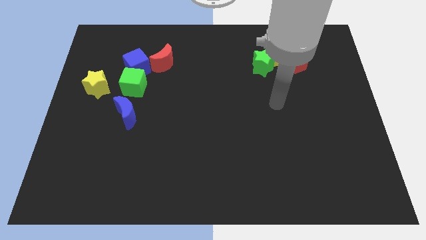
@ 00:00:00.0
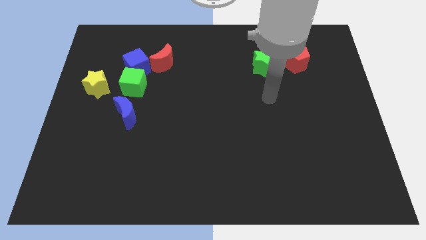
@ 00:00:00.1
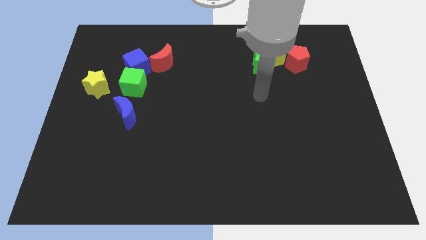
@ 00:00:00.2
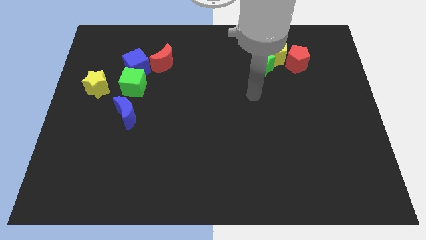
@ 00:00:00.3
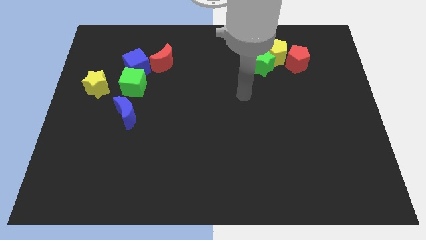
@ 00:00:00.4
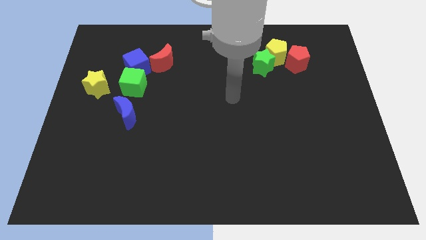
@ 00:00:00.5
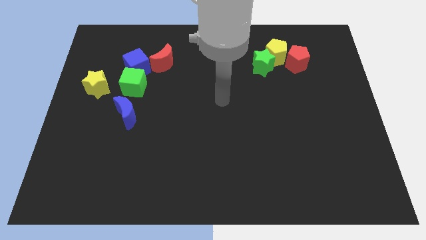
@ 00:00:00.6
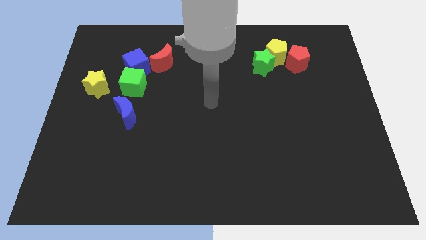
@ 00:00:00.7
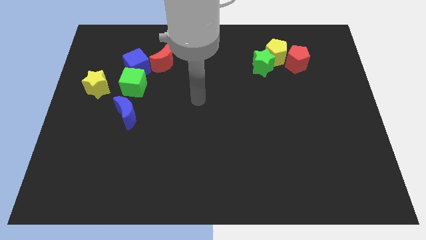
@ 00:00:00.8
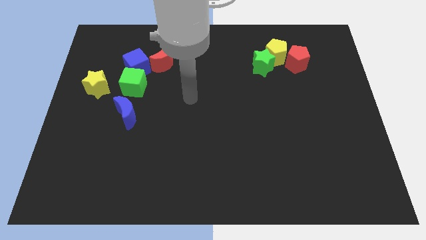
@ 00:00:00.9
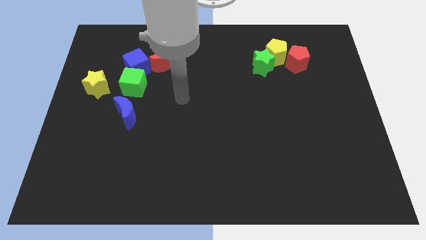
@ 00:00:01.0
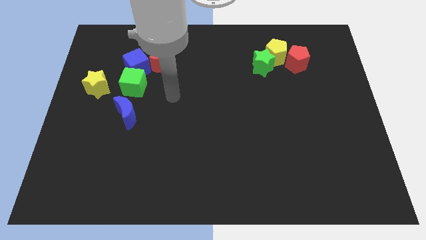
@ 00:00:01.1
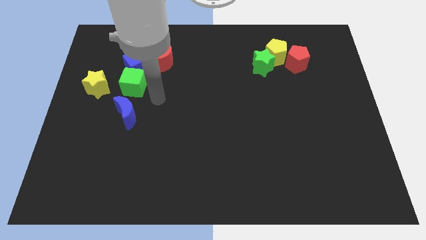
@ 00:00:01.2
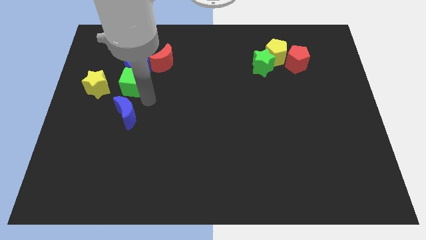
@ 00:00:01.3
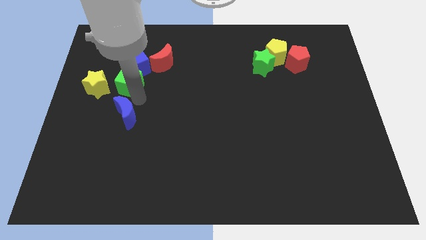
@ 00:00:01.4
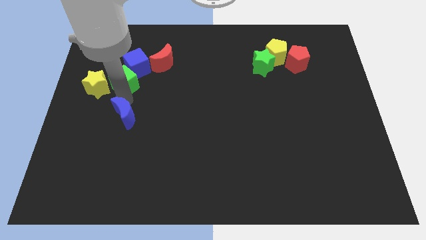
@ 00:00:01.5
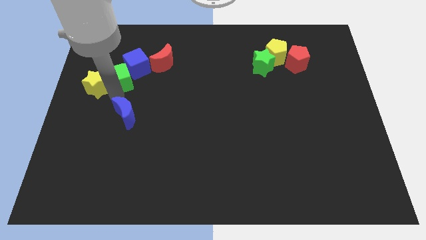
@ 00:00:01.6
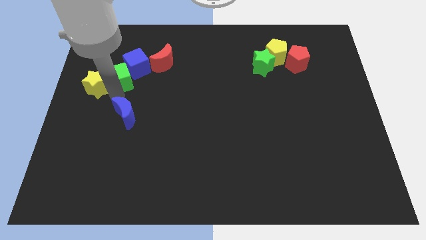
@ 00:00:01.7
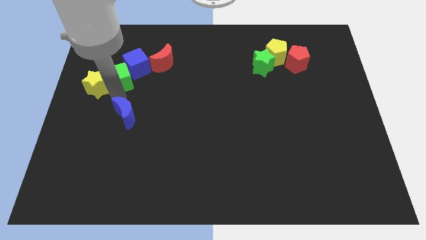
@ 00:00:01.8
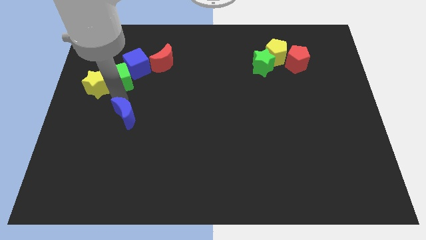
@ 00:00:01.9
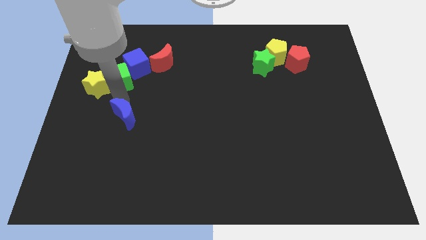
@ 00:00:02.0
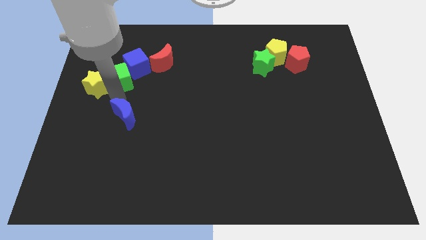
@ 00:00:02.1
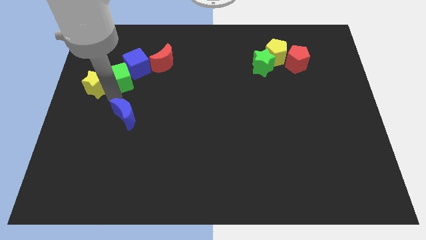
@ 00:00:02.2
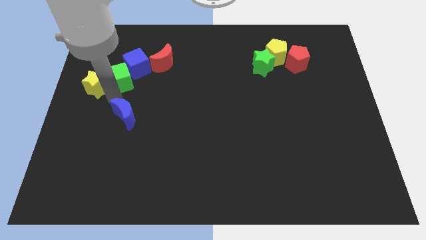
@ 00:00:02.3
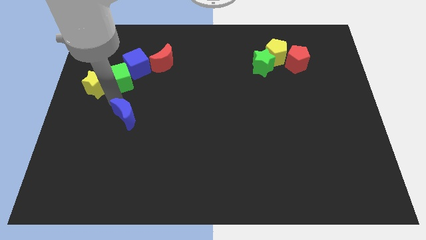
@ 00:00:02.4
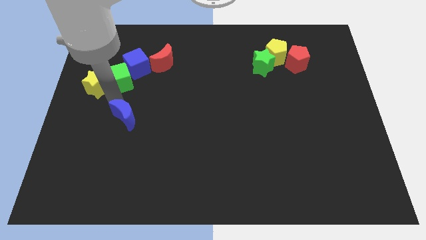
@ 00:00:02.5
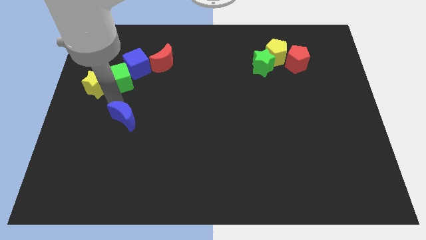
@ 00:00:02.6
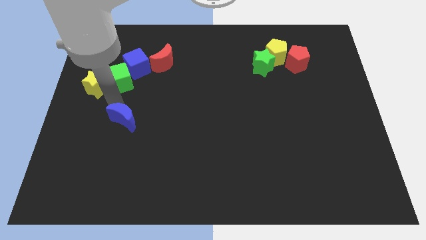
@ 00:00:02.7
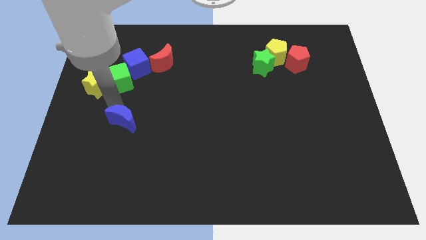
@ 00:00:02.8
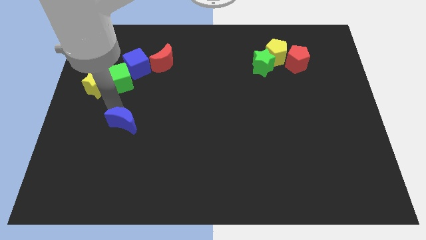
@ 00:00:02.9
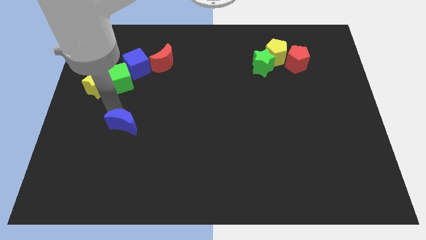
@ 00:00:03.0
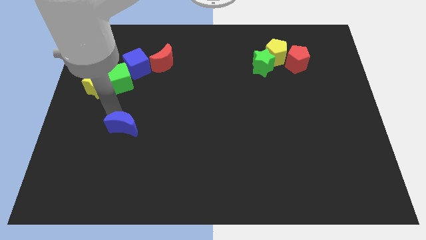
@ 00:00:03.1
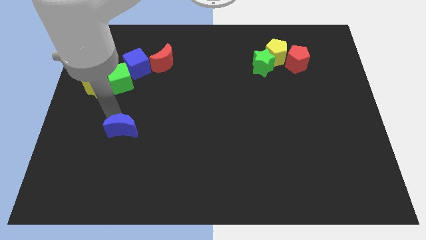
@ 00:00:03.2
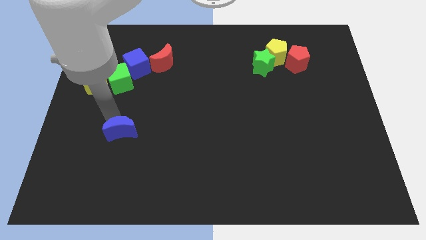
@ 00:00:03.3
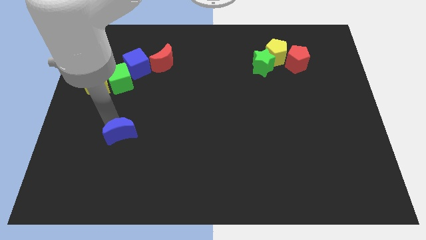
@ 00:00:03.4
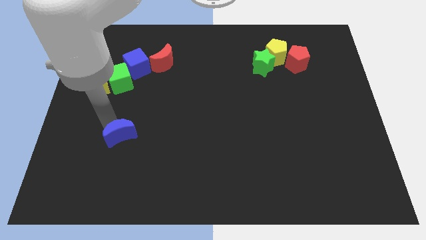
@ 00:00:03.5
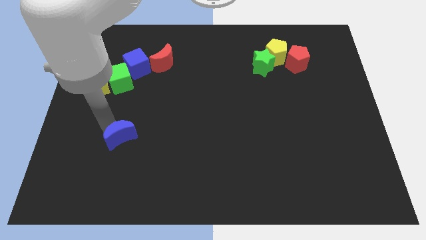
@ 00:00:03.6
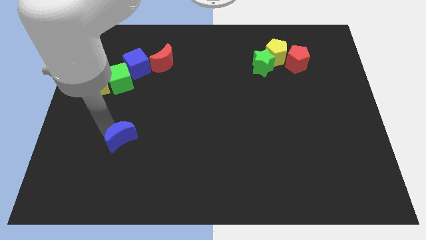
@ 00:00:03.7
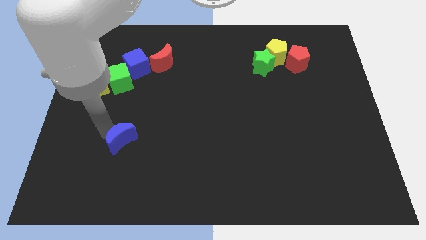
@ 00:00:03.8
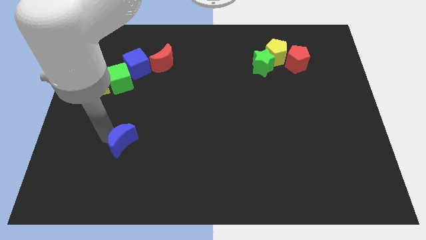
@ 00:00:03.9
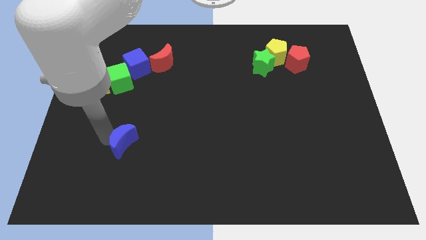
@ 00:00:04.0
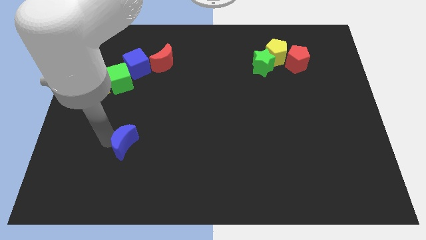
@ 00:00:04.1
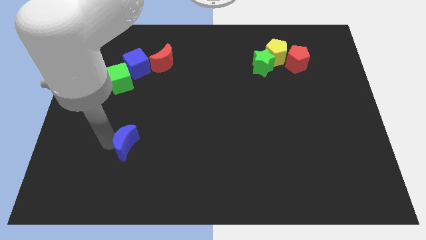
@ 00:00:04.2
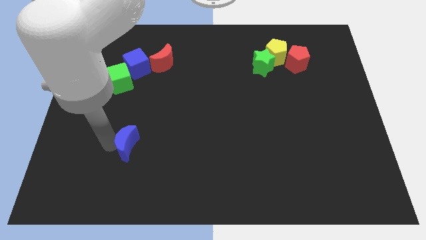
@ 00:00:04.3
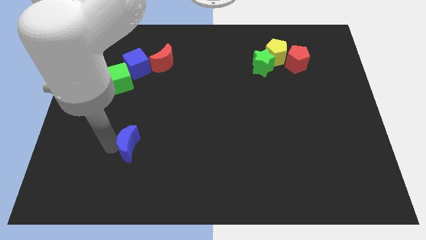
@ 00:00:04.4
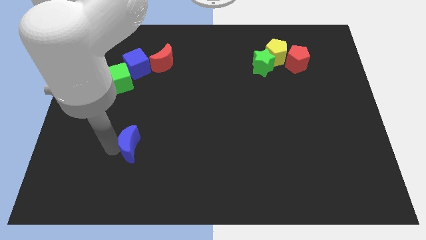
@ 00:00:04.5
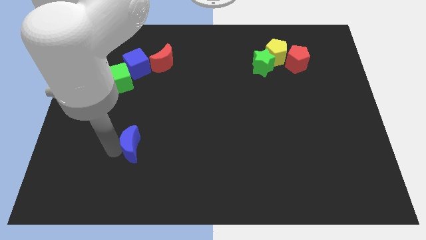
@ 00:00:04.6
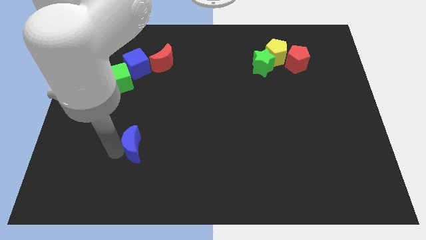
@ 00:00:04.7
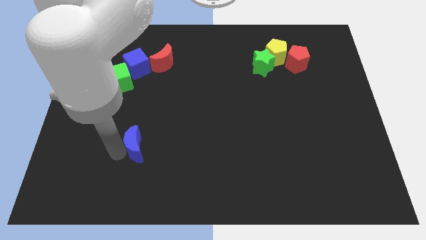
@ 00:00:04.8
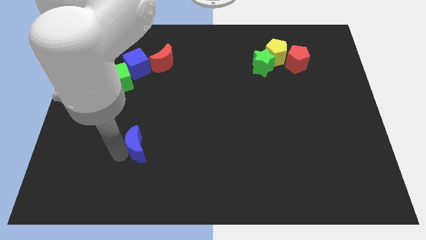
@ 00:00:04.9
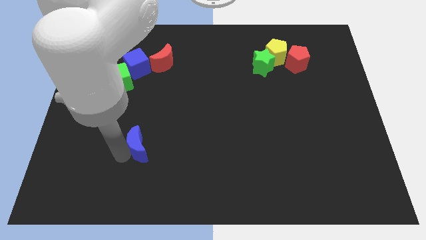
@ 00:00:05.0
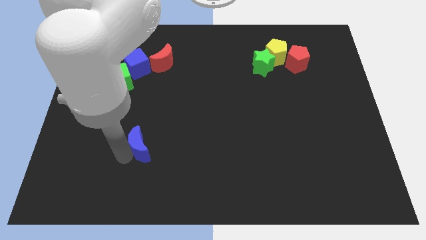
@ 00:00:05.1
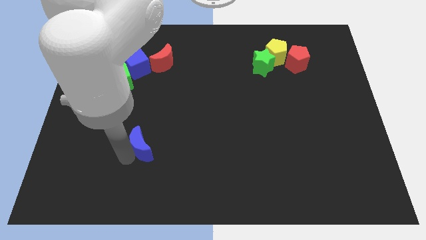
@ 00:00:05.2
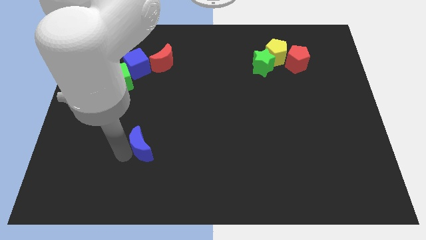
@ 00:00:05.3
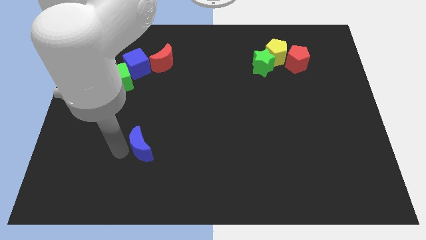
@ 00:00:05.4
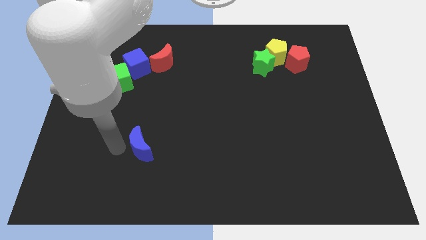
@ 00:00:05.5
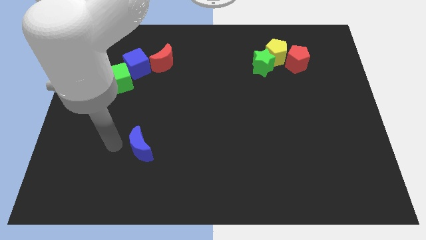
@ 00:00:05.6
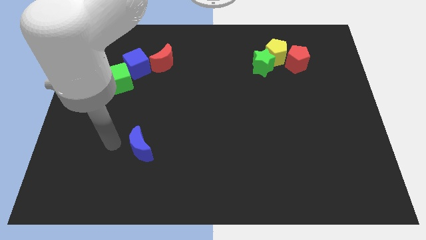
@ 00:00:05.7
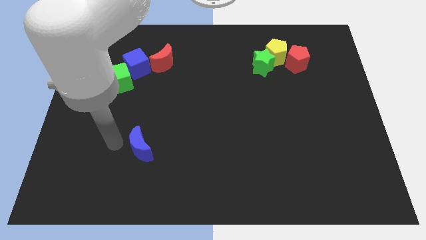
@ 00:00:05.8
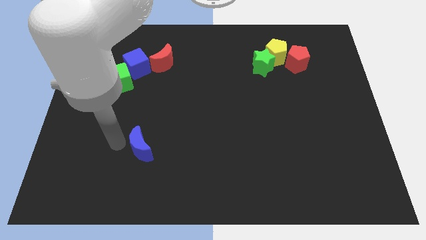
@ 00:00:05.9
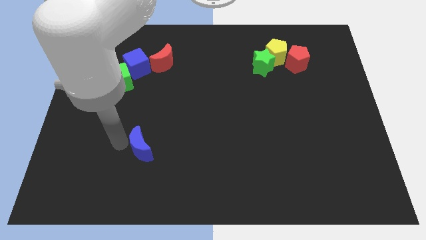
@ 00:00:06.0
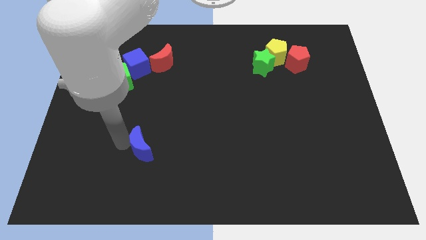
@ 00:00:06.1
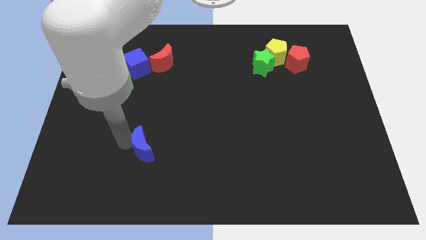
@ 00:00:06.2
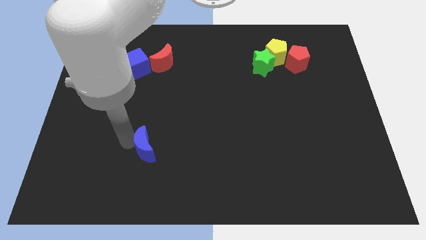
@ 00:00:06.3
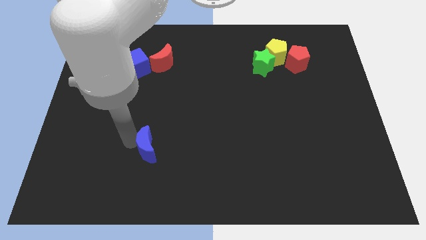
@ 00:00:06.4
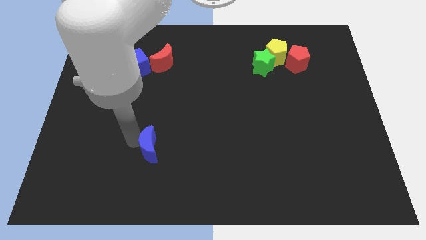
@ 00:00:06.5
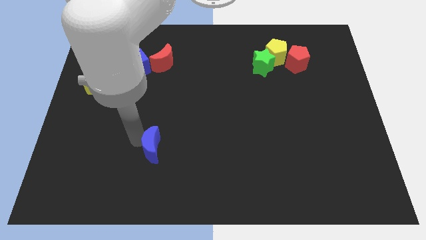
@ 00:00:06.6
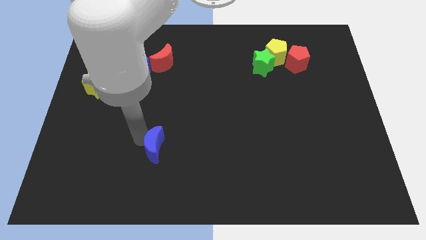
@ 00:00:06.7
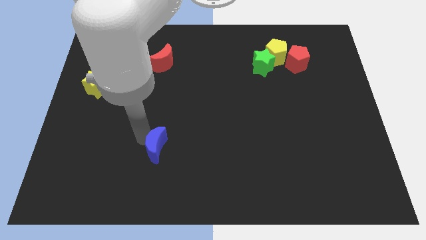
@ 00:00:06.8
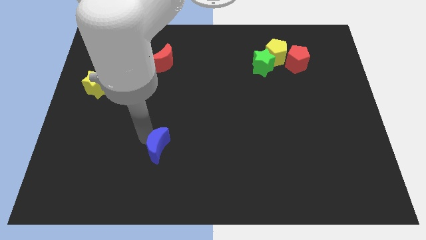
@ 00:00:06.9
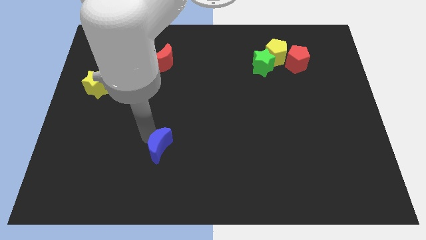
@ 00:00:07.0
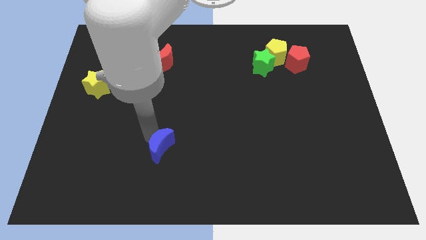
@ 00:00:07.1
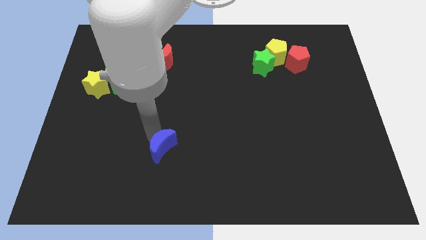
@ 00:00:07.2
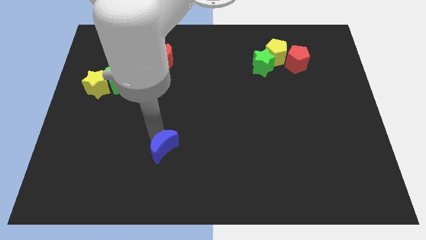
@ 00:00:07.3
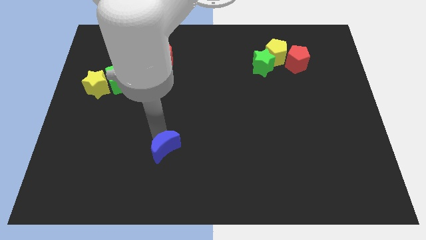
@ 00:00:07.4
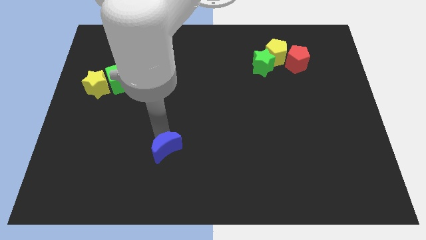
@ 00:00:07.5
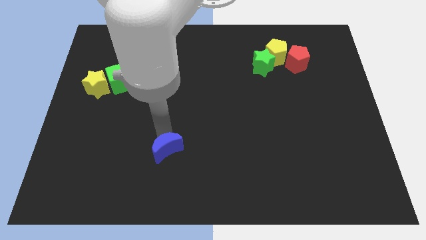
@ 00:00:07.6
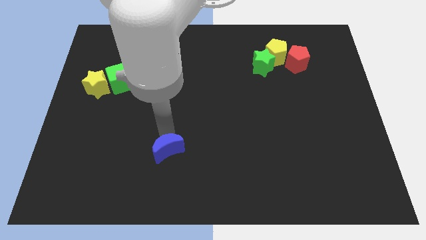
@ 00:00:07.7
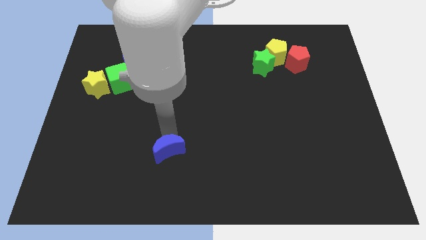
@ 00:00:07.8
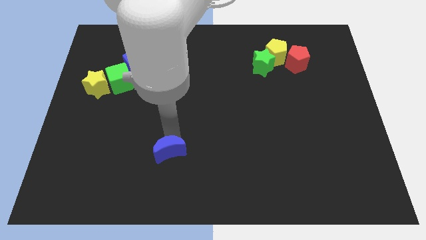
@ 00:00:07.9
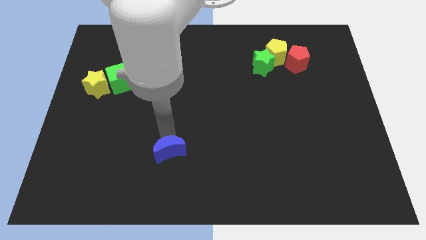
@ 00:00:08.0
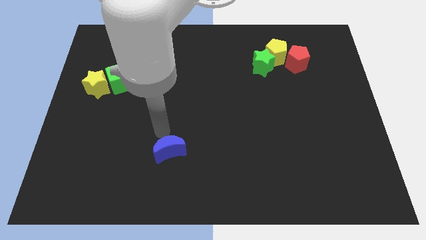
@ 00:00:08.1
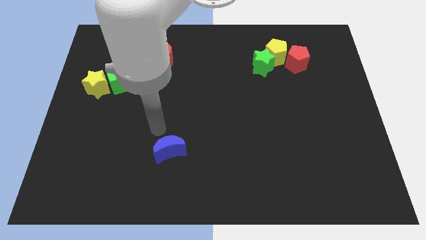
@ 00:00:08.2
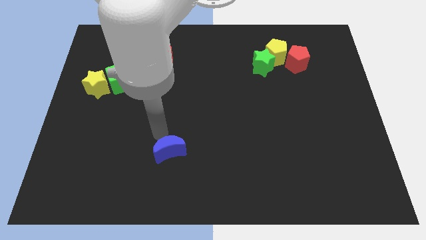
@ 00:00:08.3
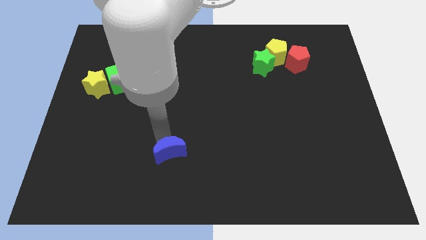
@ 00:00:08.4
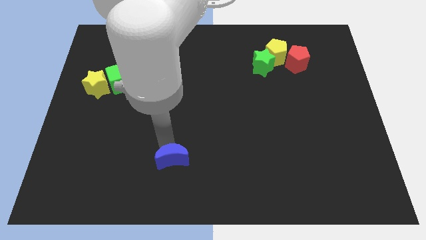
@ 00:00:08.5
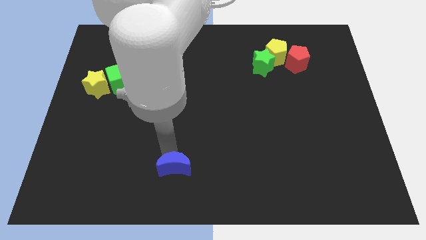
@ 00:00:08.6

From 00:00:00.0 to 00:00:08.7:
push the blue moon to the bottom side
